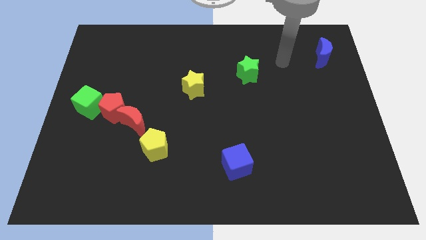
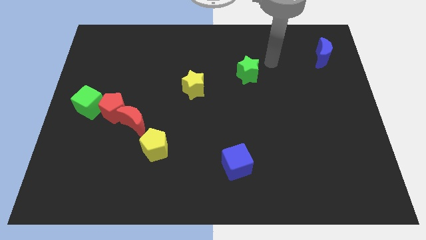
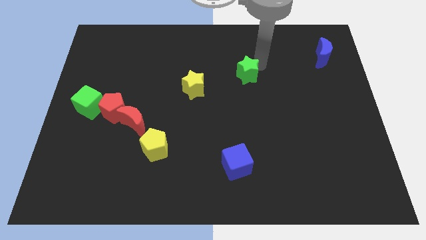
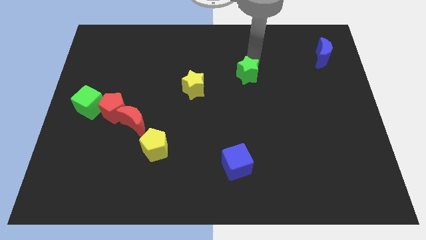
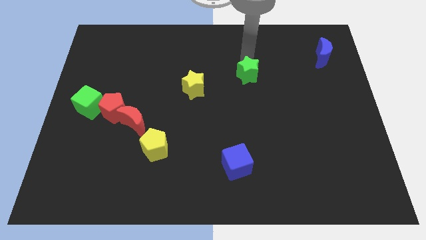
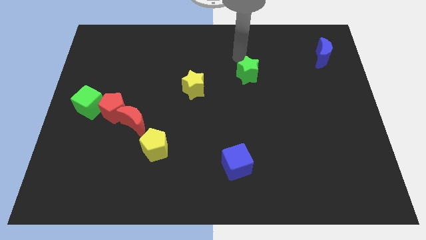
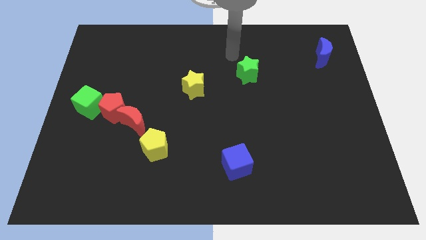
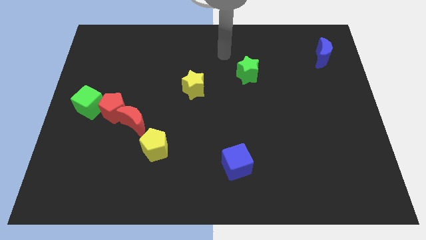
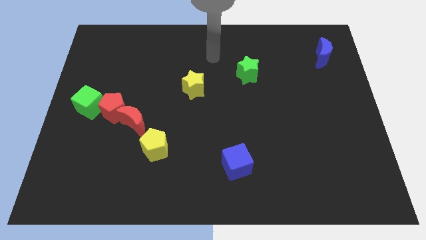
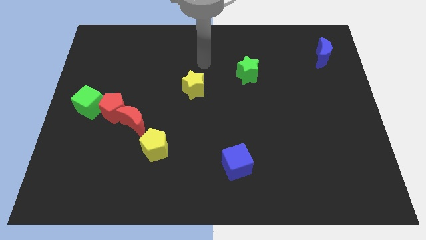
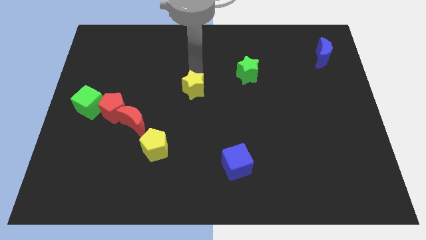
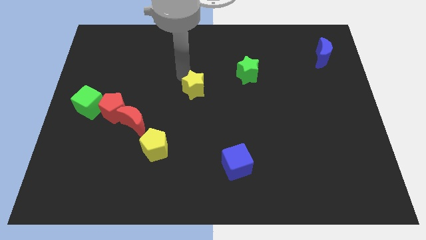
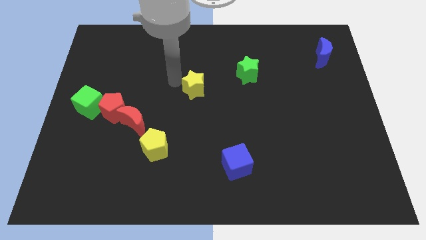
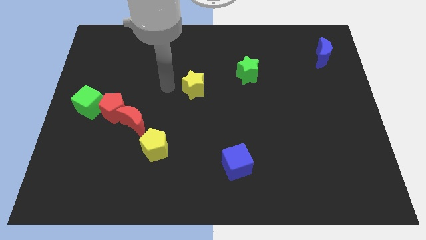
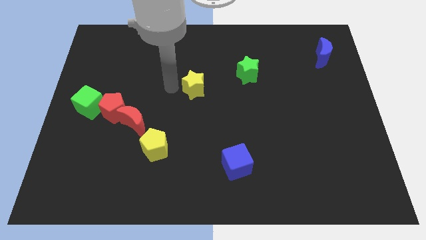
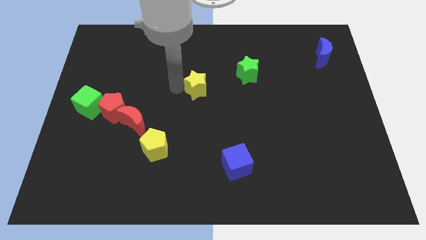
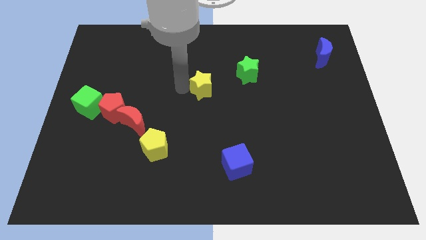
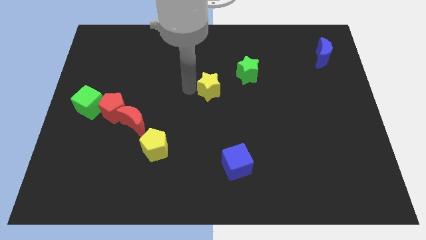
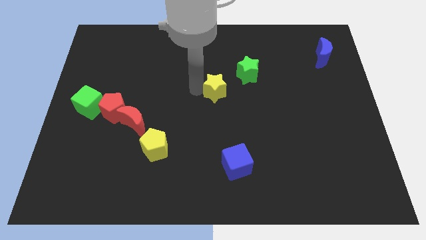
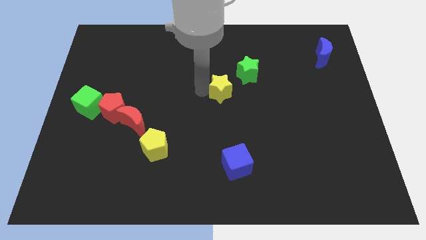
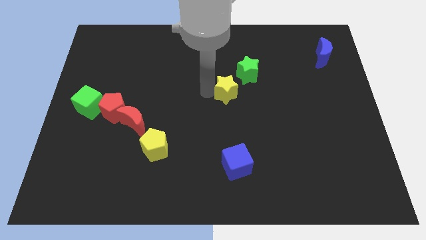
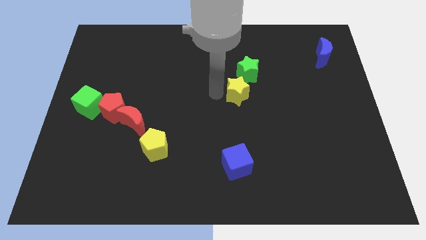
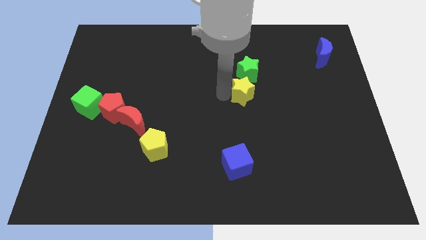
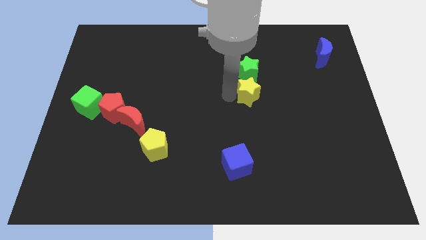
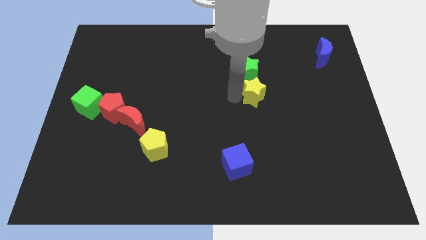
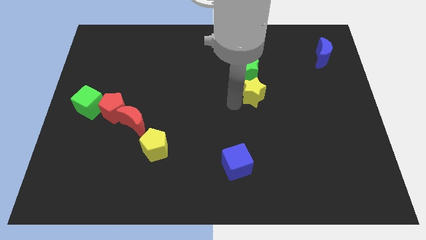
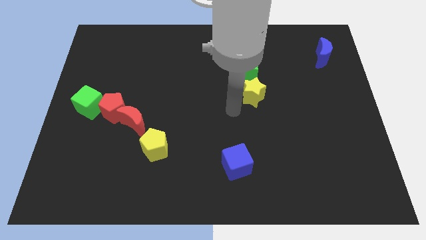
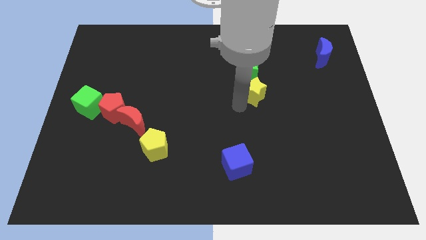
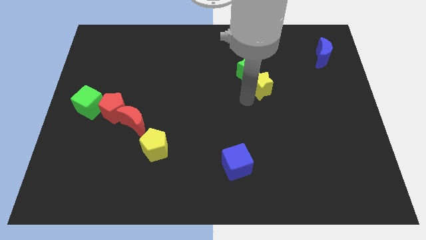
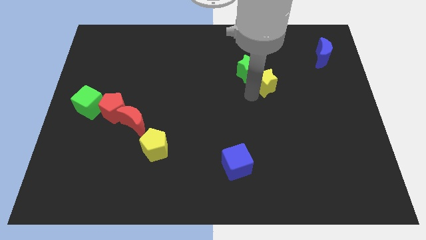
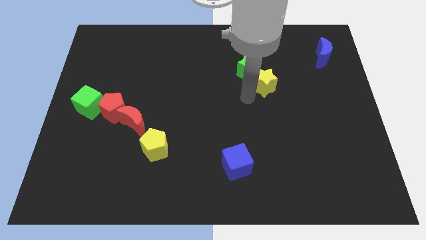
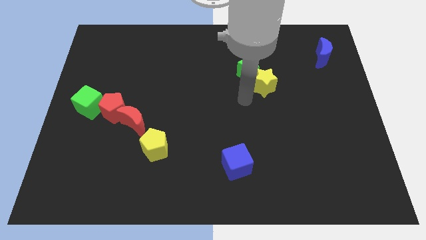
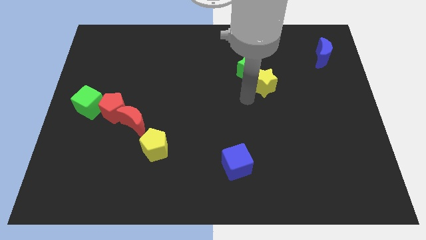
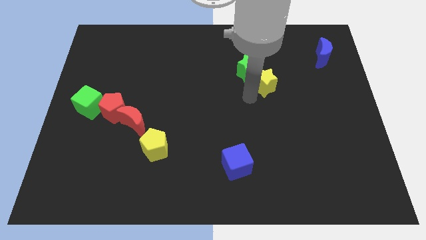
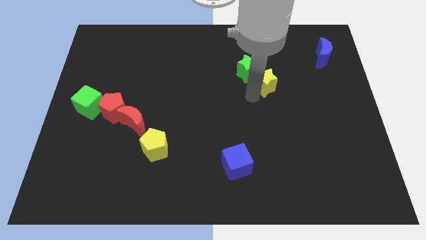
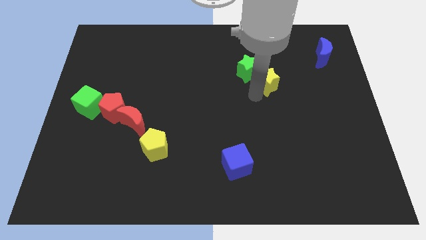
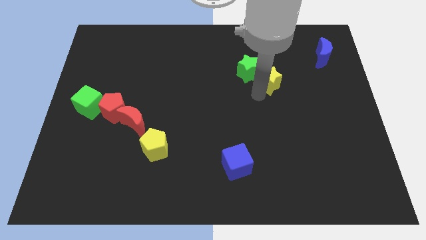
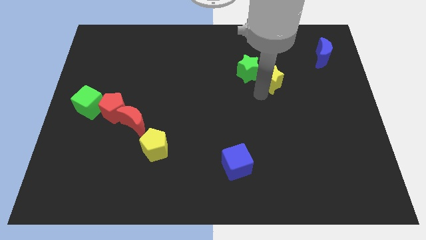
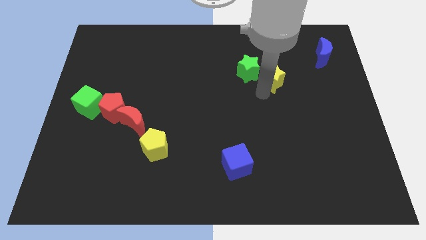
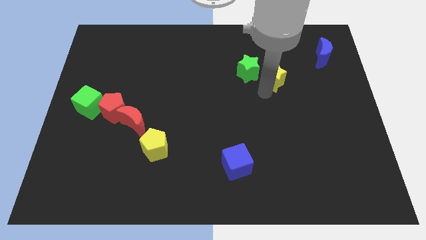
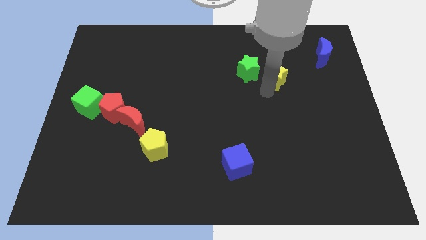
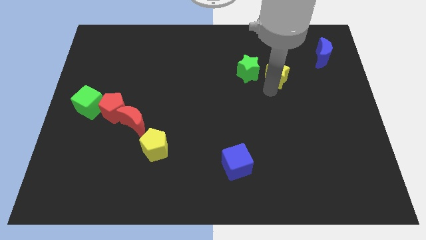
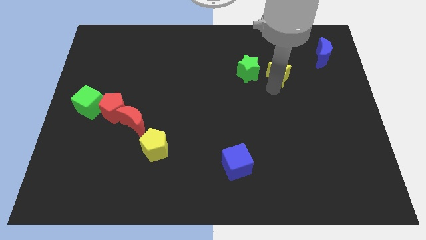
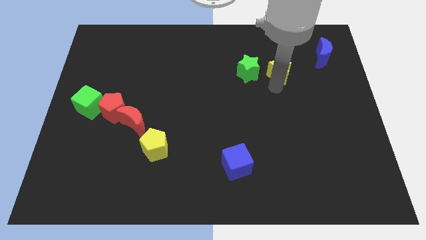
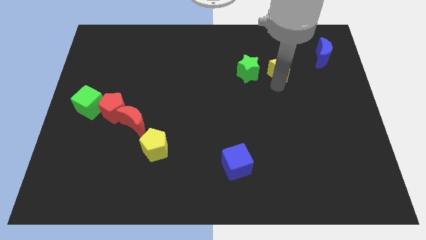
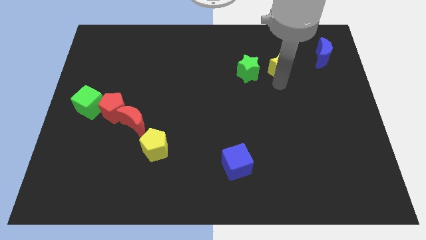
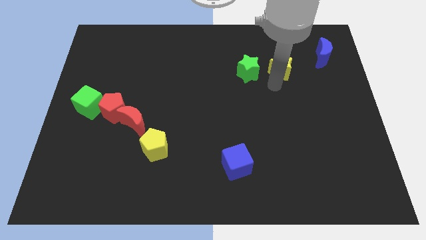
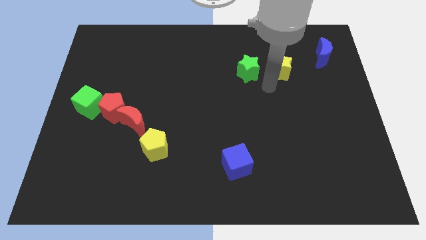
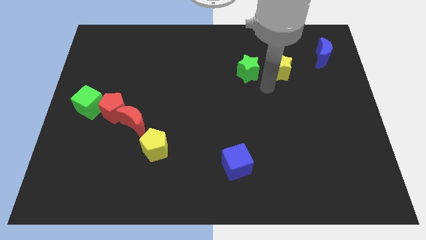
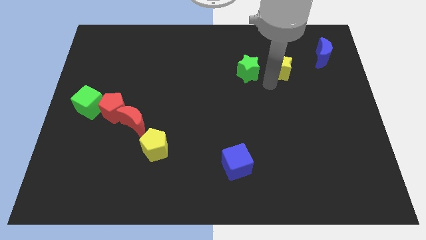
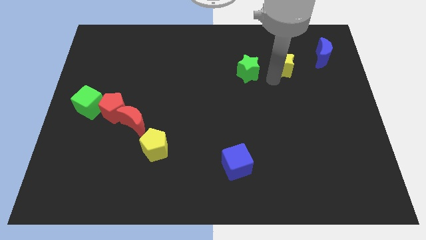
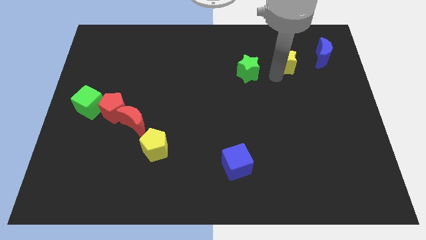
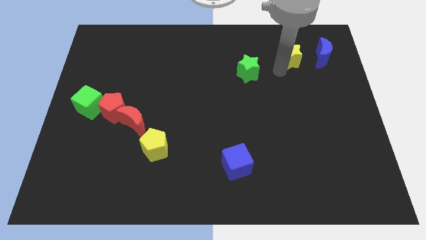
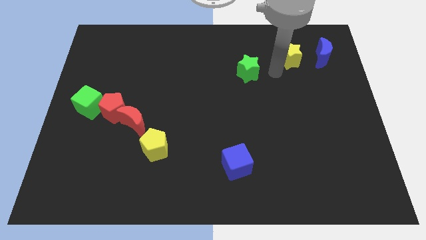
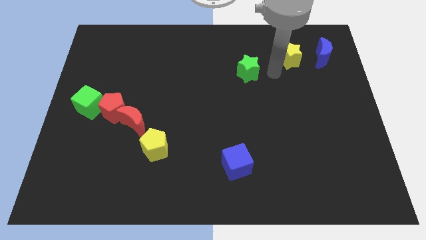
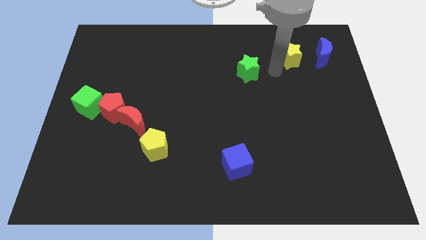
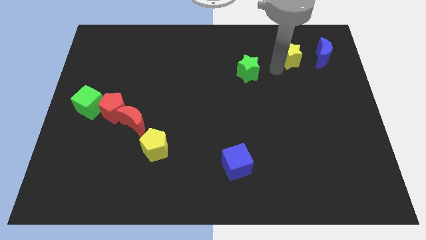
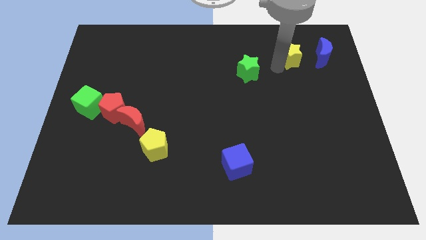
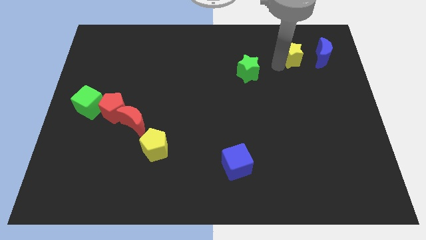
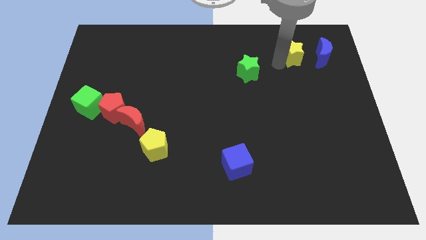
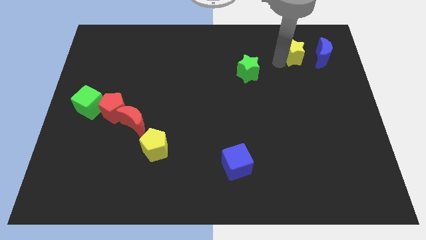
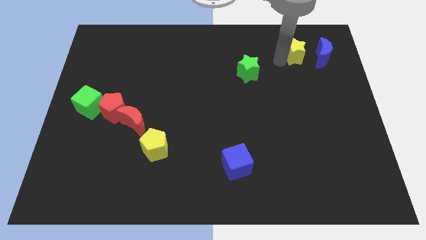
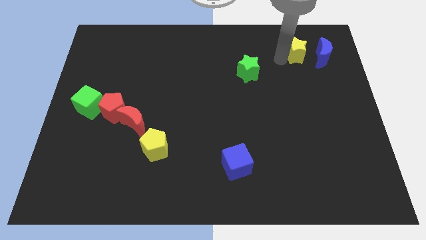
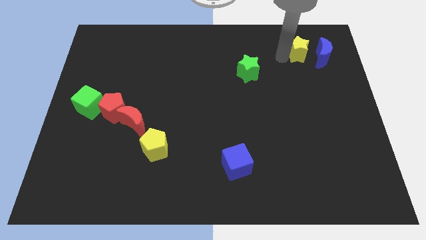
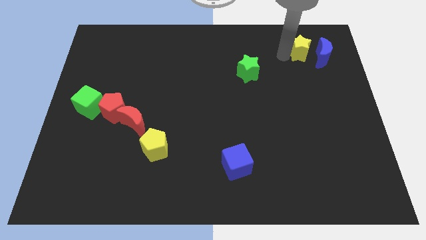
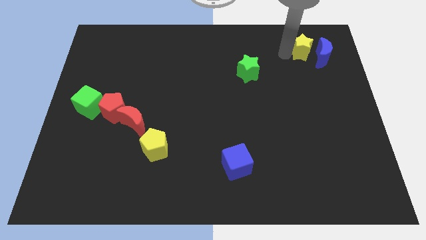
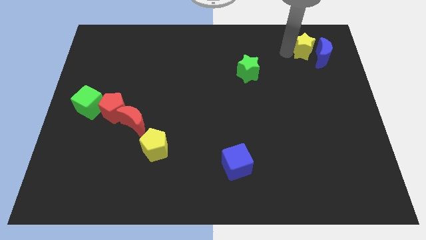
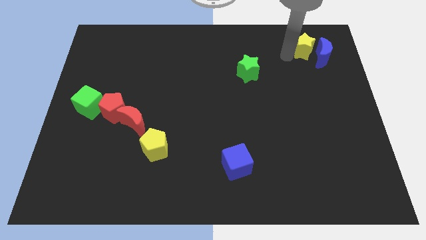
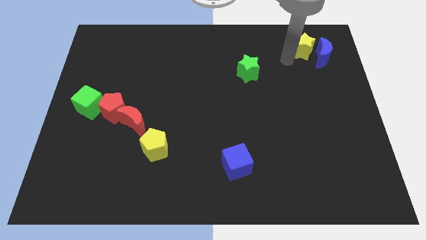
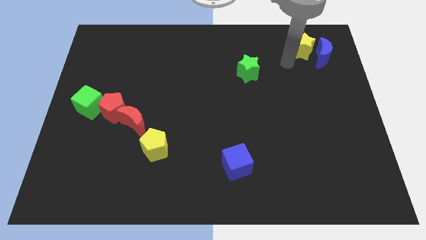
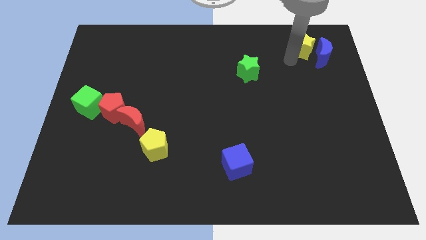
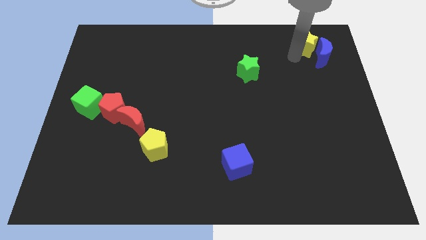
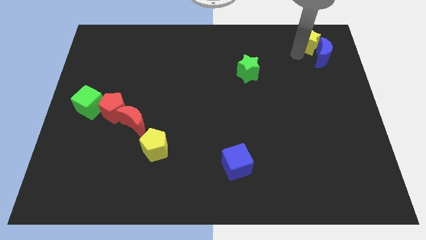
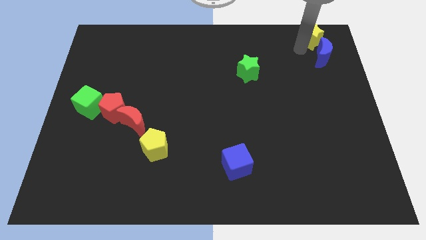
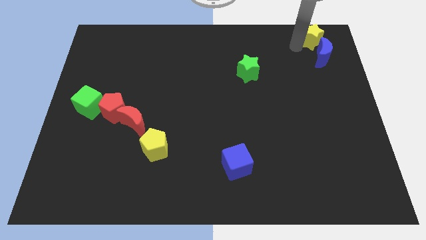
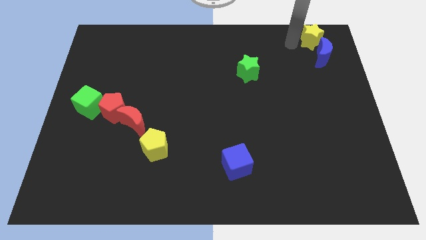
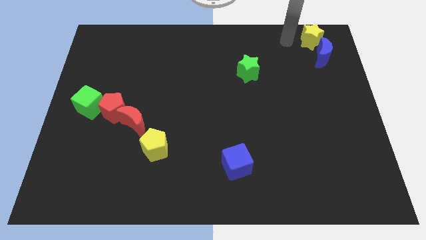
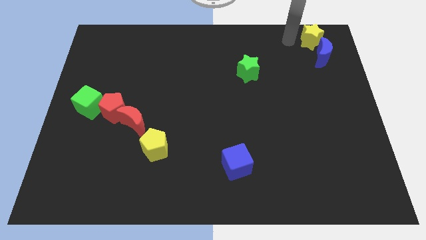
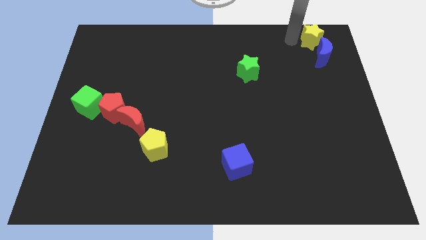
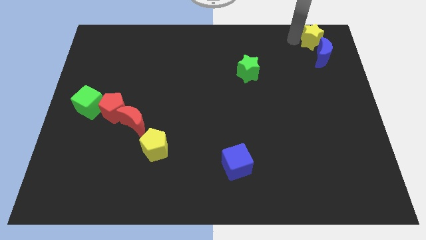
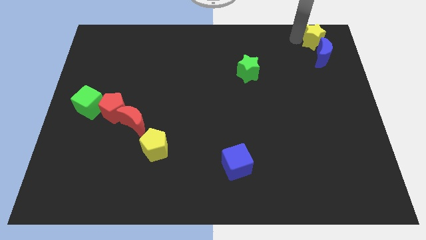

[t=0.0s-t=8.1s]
push the yellow star to the top right of the board
